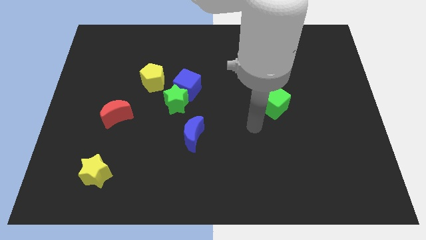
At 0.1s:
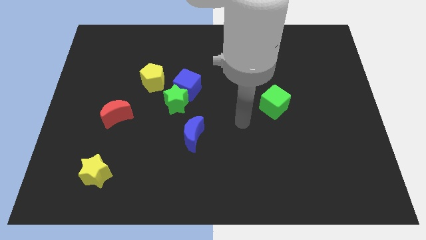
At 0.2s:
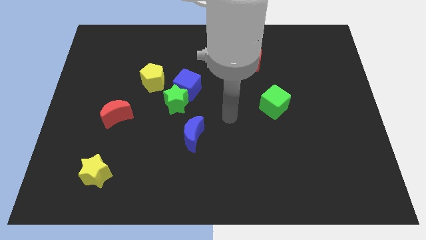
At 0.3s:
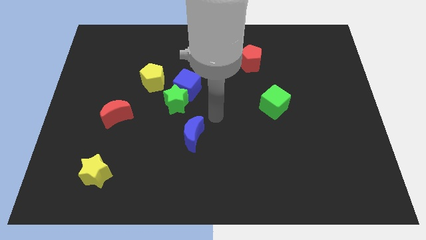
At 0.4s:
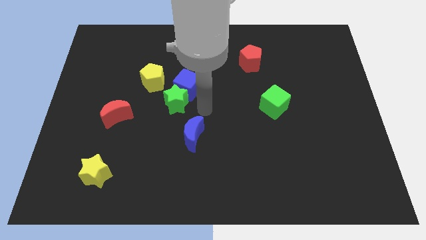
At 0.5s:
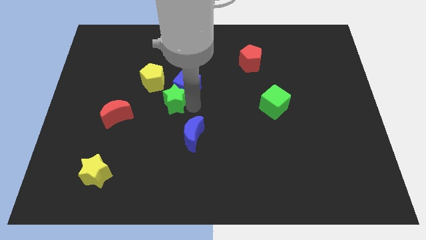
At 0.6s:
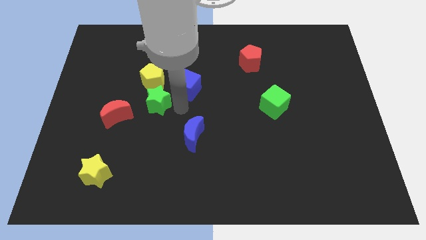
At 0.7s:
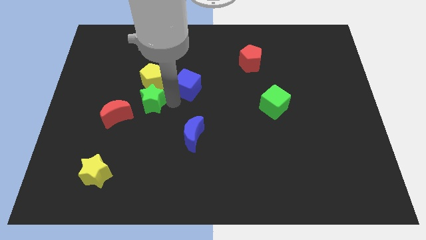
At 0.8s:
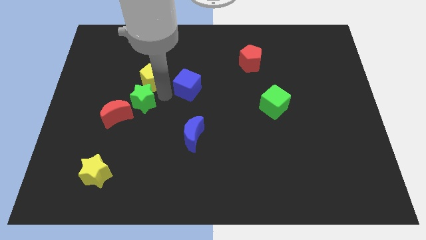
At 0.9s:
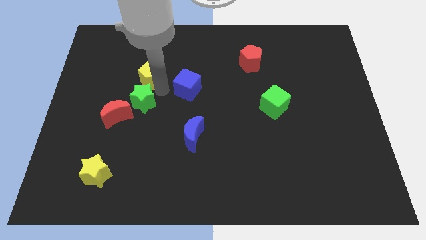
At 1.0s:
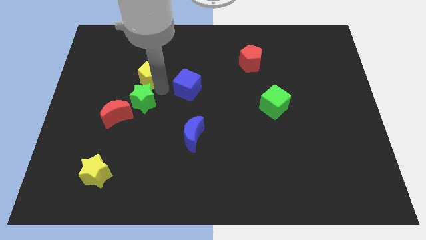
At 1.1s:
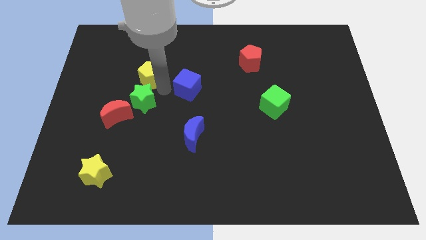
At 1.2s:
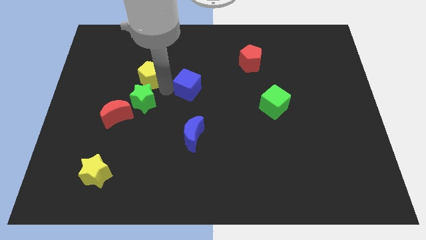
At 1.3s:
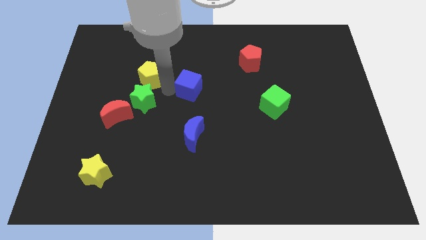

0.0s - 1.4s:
separate the blue cube from the green star and yellow pentagon

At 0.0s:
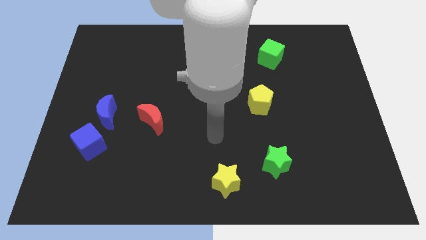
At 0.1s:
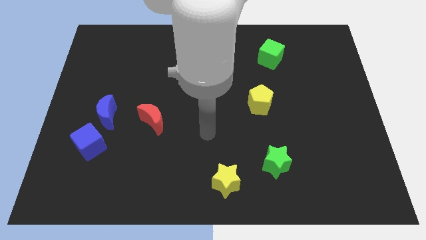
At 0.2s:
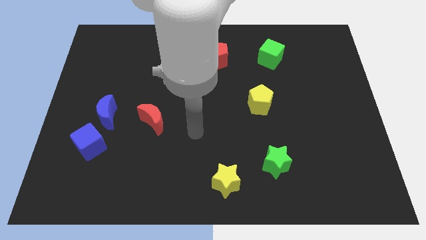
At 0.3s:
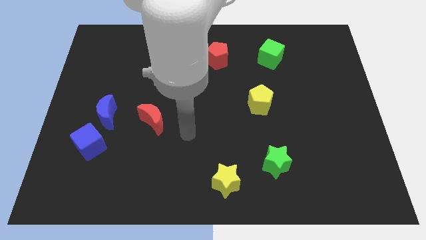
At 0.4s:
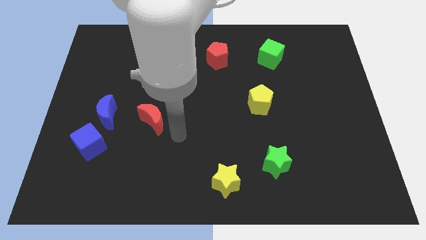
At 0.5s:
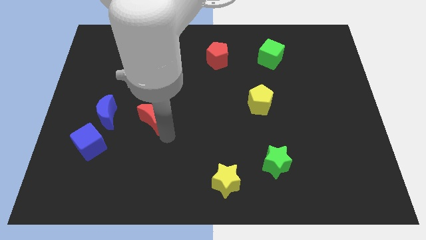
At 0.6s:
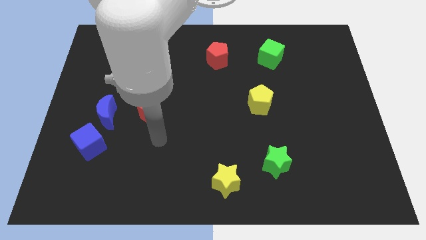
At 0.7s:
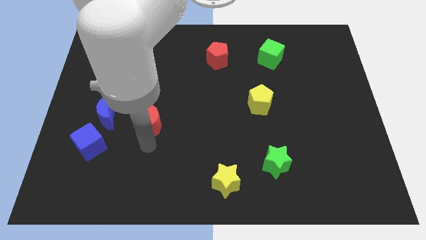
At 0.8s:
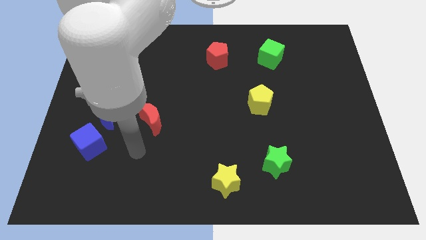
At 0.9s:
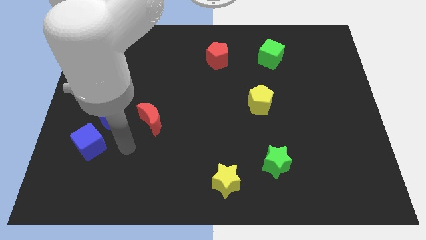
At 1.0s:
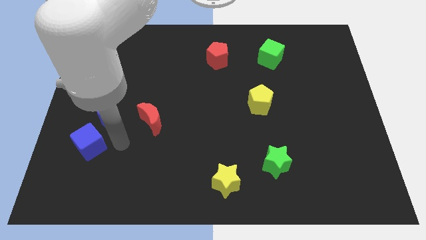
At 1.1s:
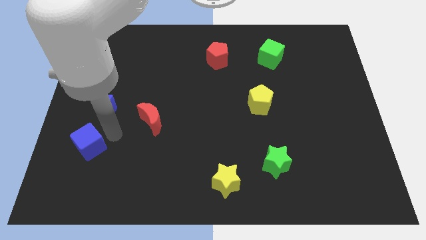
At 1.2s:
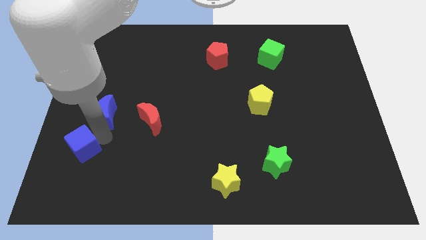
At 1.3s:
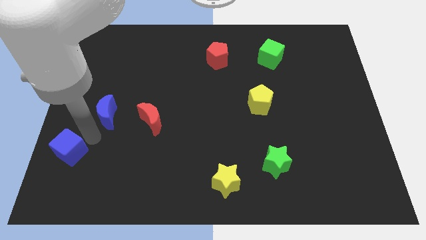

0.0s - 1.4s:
move the blue moon away from the blue cube

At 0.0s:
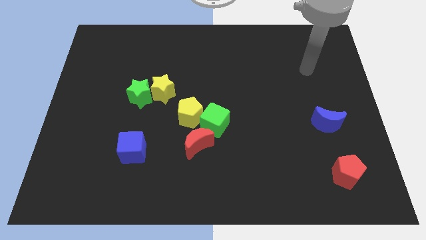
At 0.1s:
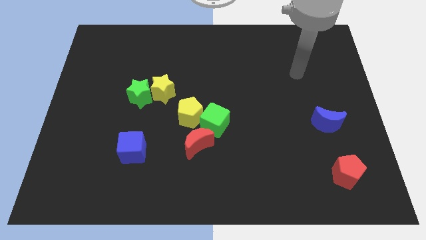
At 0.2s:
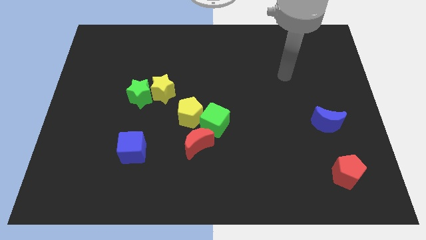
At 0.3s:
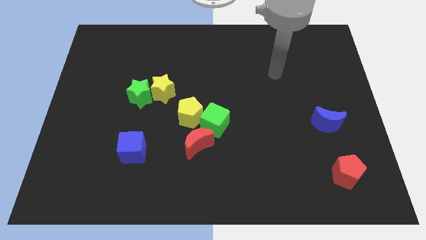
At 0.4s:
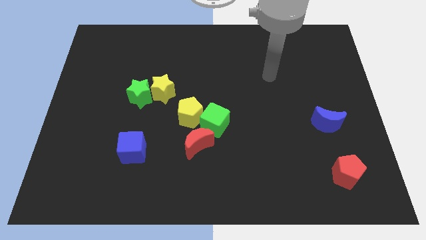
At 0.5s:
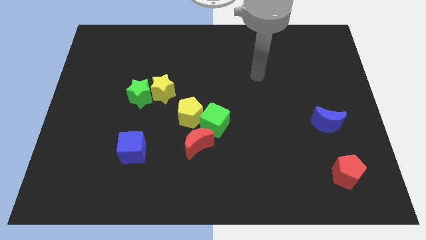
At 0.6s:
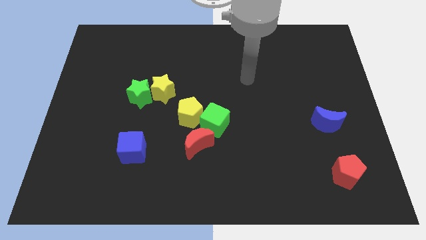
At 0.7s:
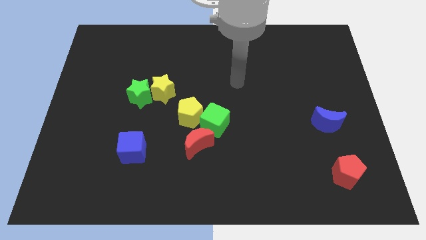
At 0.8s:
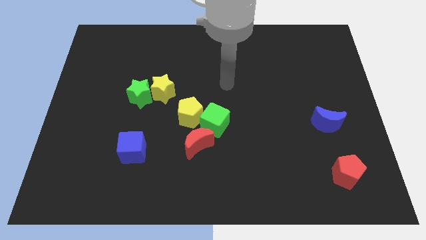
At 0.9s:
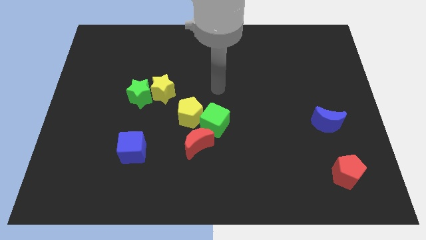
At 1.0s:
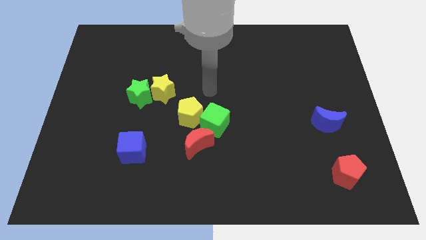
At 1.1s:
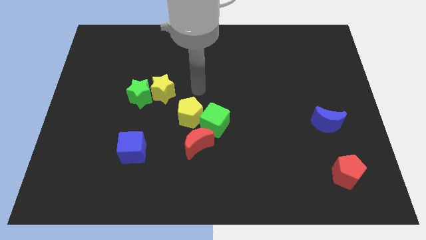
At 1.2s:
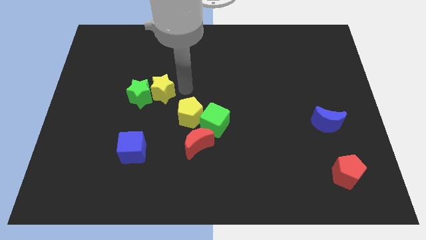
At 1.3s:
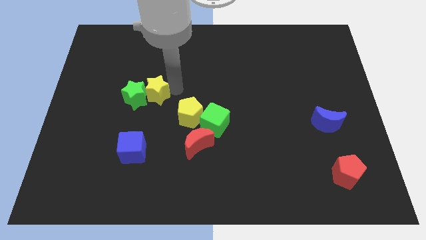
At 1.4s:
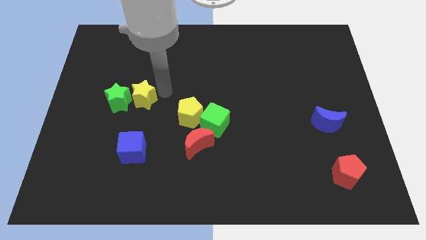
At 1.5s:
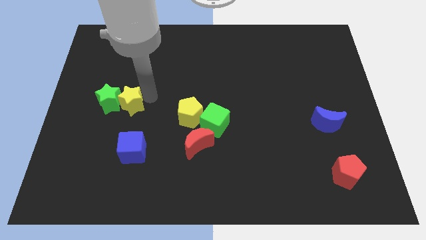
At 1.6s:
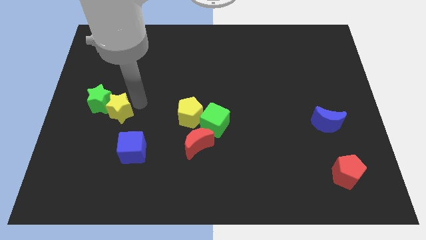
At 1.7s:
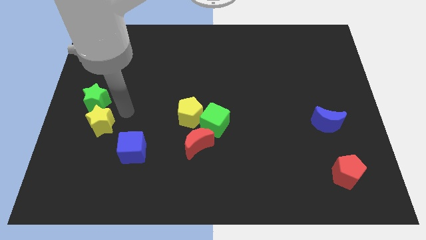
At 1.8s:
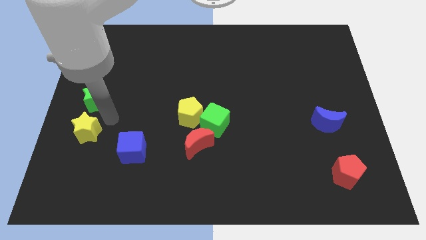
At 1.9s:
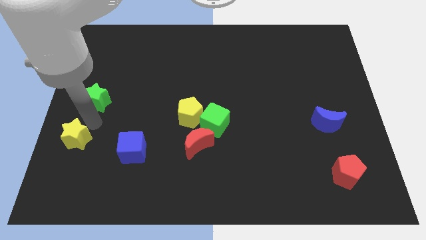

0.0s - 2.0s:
pull the green star apart from the yellow star

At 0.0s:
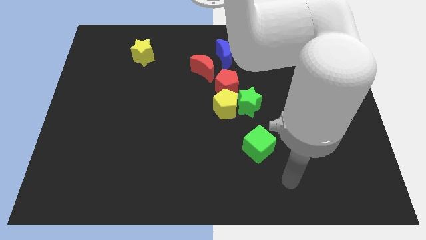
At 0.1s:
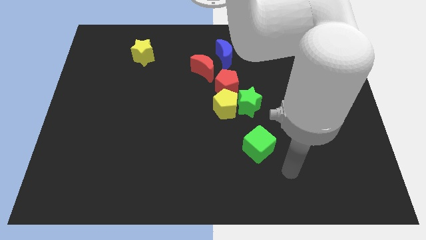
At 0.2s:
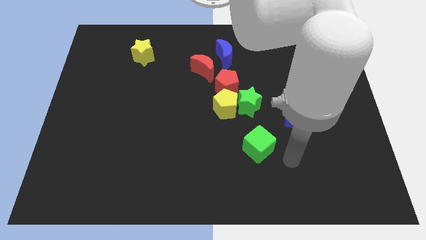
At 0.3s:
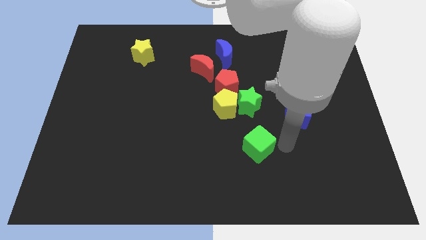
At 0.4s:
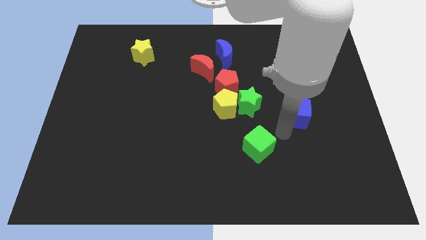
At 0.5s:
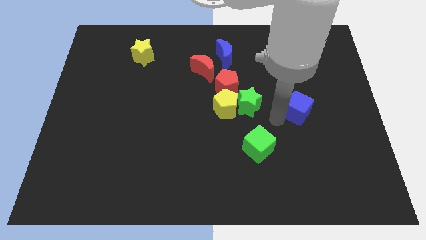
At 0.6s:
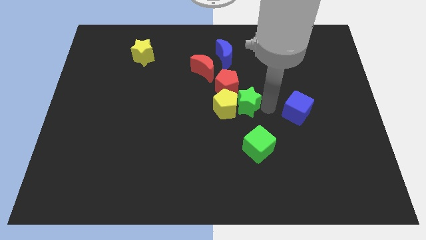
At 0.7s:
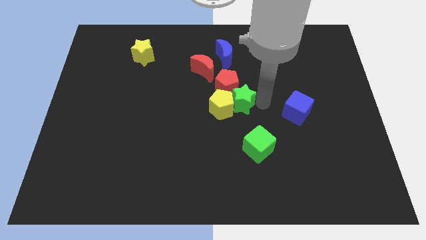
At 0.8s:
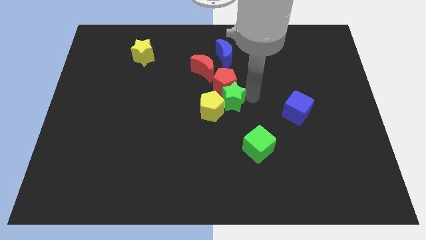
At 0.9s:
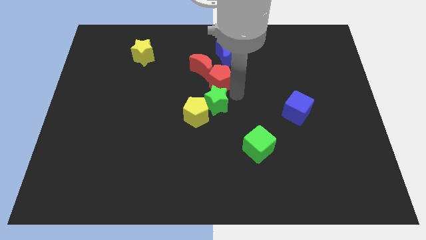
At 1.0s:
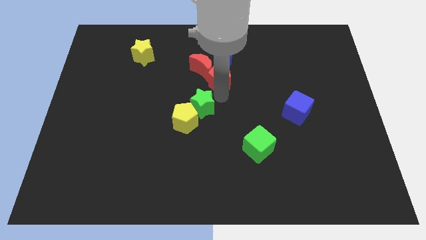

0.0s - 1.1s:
pull the yellow pentagon apart from the green star and red pentagon

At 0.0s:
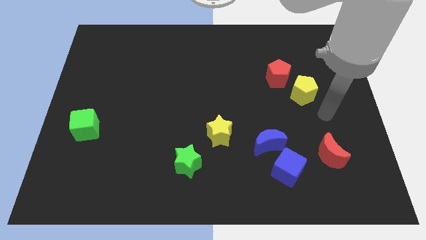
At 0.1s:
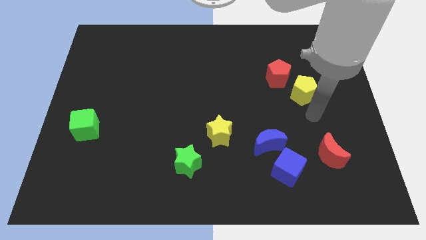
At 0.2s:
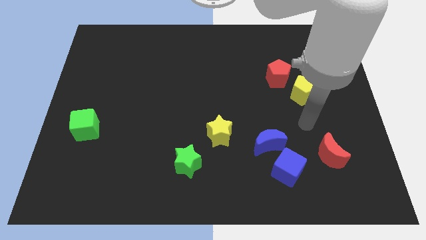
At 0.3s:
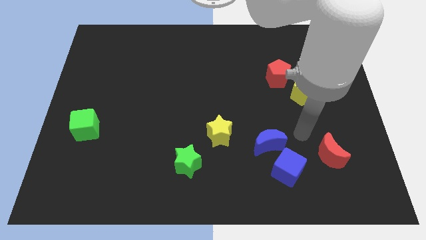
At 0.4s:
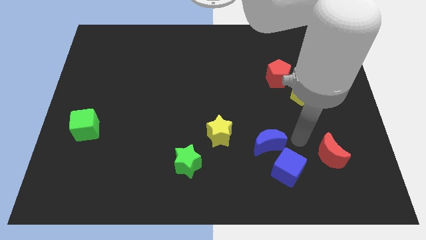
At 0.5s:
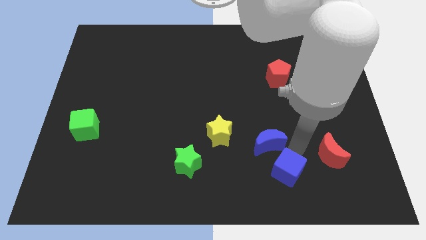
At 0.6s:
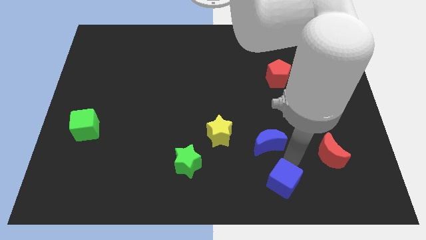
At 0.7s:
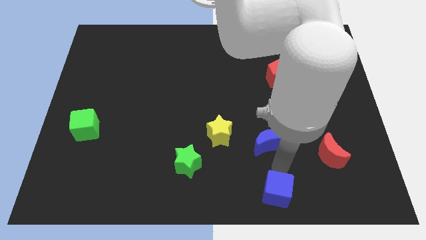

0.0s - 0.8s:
separate the blue moon from the blue cube

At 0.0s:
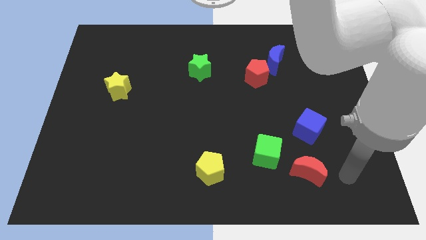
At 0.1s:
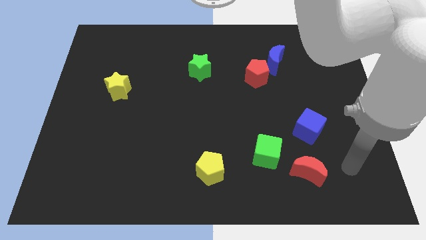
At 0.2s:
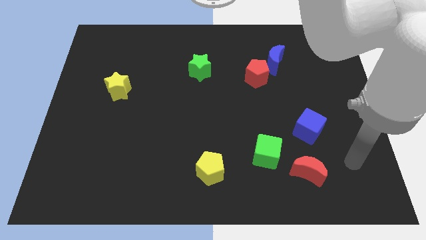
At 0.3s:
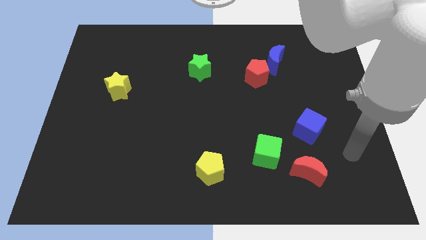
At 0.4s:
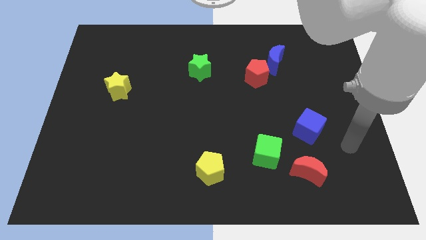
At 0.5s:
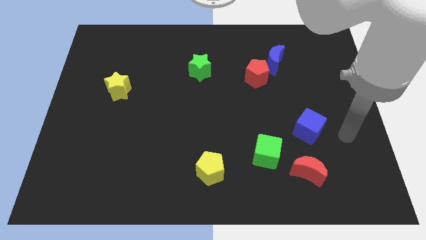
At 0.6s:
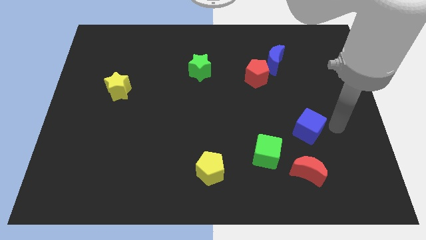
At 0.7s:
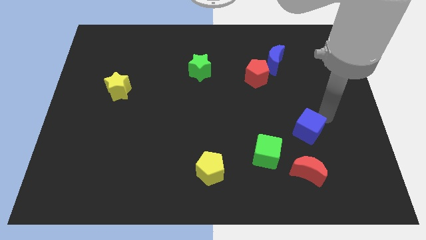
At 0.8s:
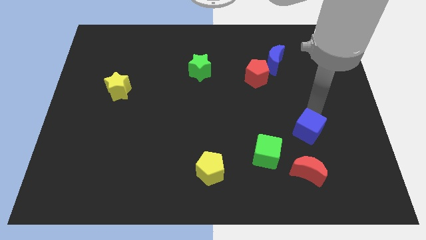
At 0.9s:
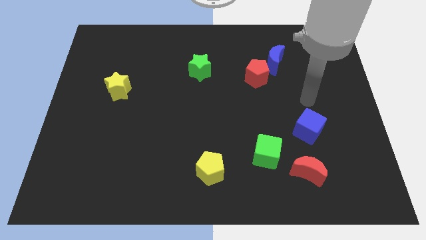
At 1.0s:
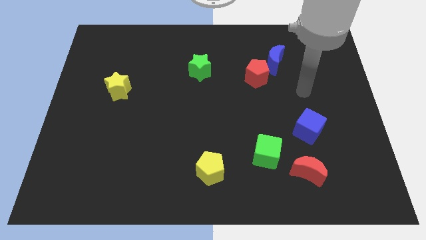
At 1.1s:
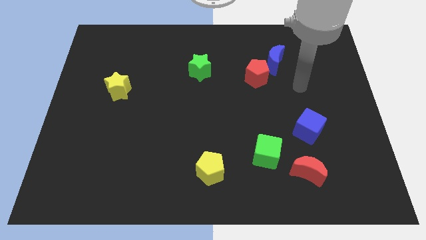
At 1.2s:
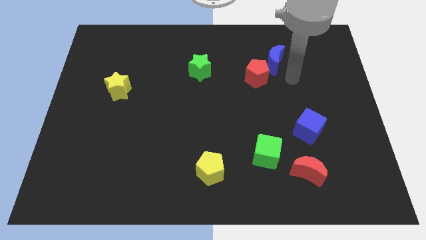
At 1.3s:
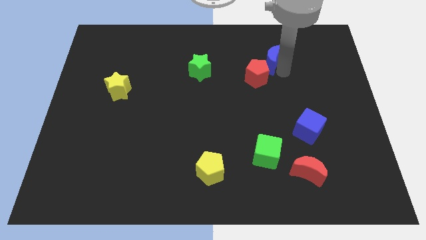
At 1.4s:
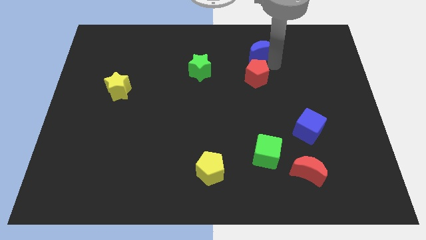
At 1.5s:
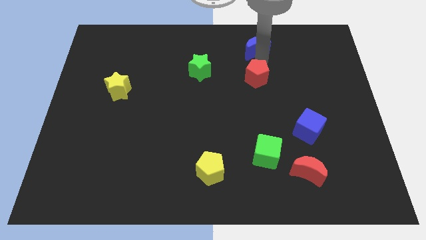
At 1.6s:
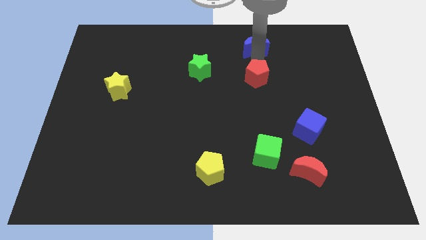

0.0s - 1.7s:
separate the red pentagon from the blue moon

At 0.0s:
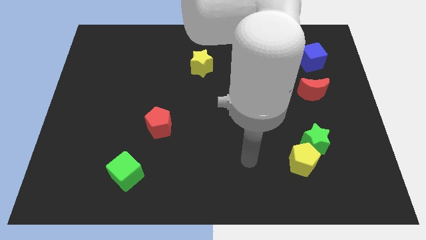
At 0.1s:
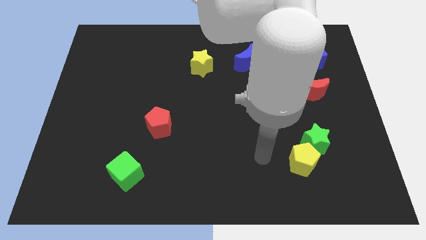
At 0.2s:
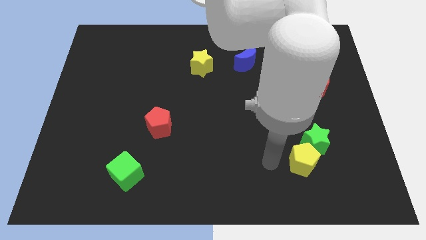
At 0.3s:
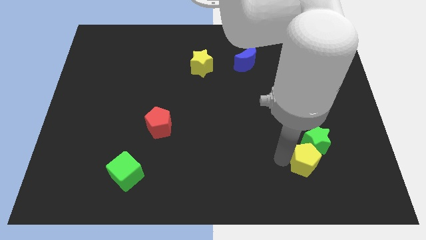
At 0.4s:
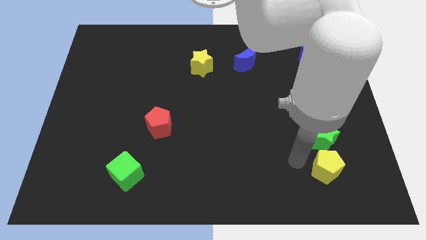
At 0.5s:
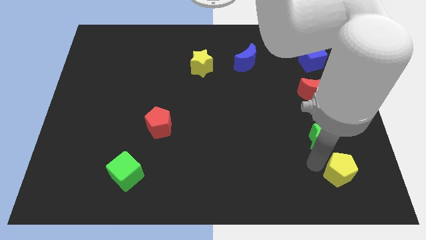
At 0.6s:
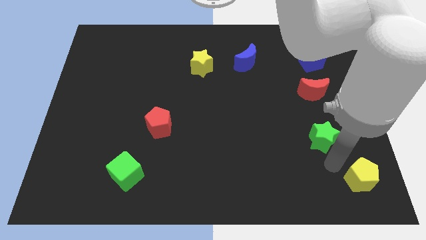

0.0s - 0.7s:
move the green star away from the yellow pentagon

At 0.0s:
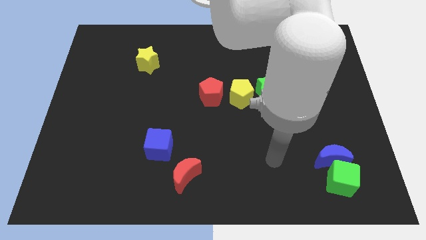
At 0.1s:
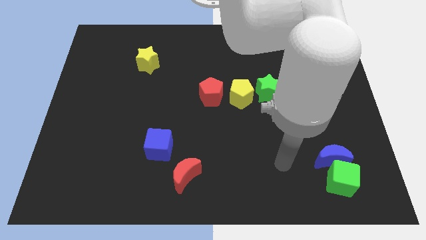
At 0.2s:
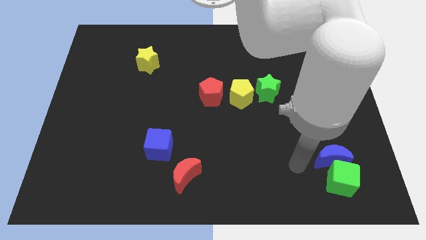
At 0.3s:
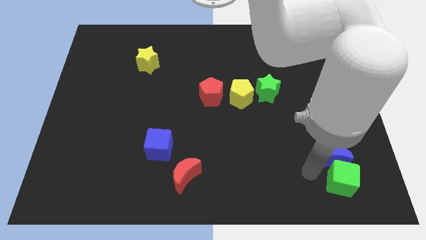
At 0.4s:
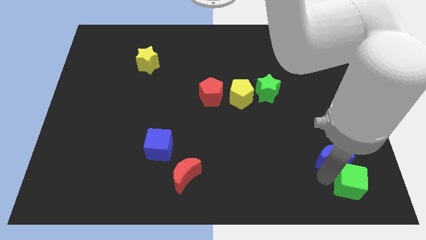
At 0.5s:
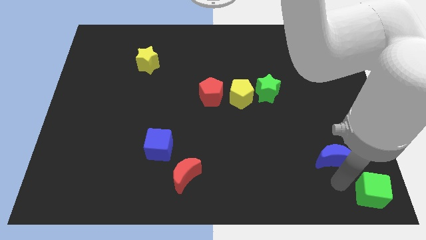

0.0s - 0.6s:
pull the blue moon apart from the green cube
